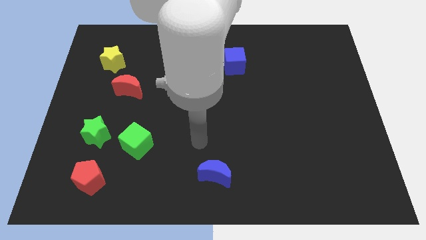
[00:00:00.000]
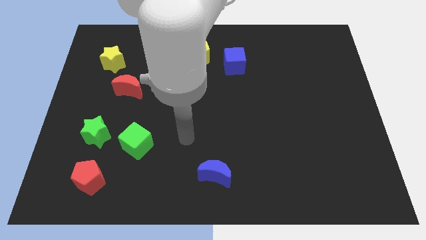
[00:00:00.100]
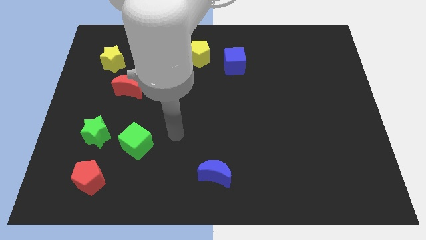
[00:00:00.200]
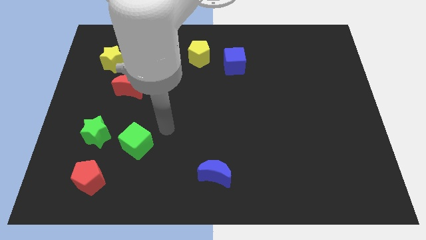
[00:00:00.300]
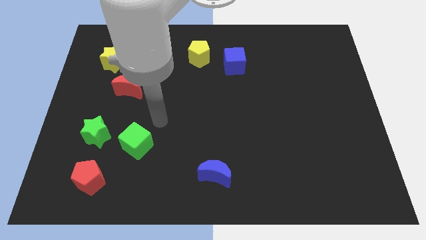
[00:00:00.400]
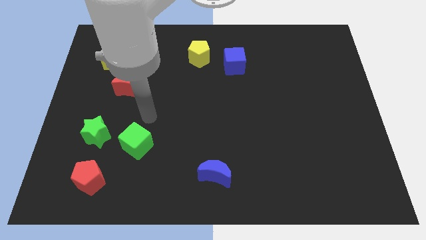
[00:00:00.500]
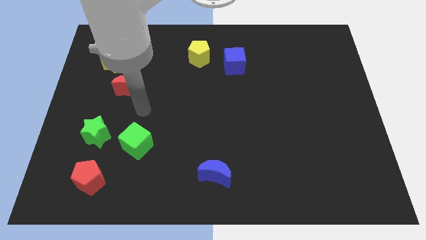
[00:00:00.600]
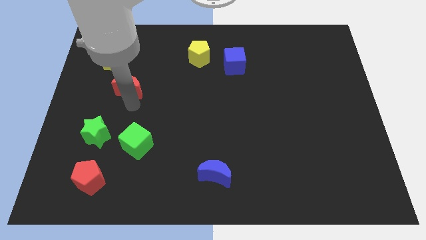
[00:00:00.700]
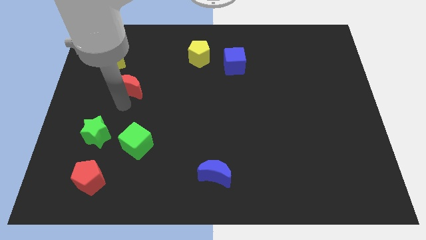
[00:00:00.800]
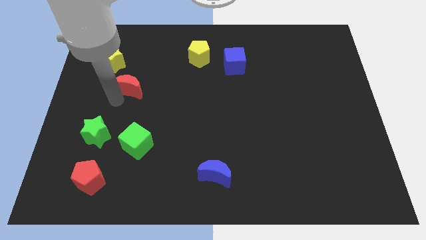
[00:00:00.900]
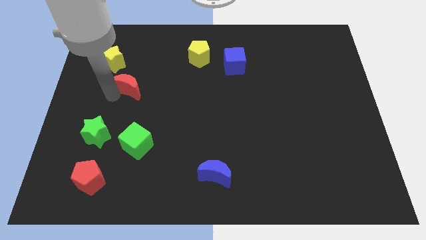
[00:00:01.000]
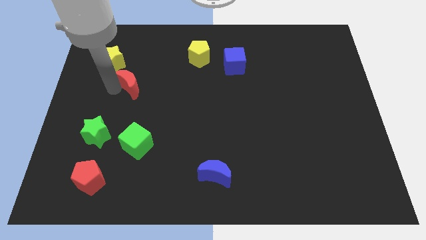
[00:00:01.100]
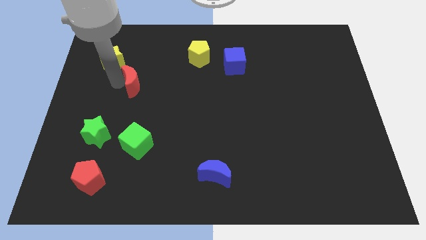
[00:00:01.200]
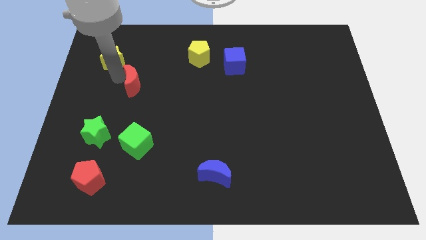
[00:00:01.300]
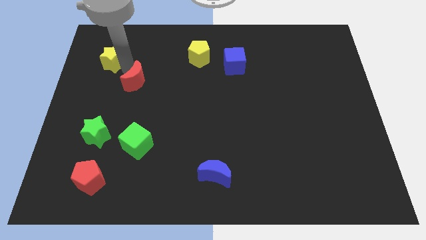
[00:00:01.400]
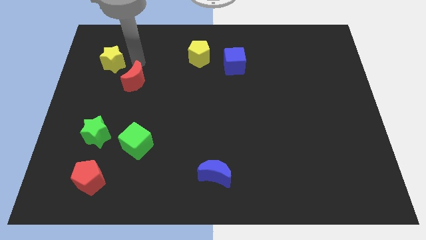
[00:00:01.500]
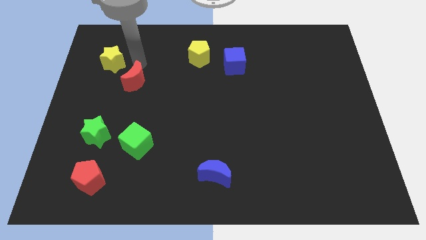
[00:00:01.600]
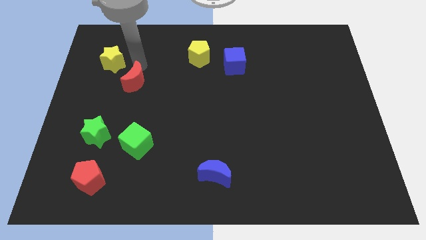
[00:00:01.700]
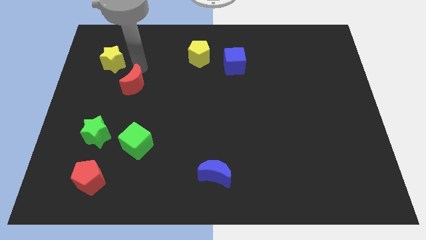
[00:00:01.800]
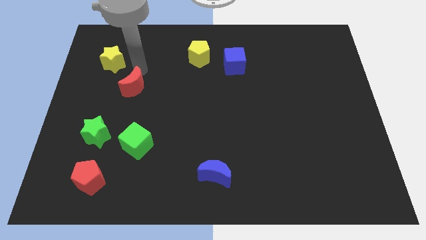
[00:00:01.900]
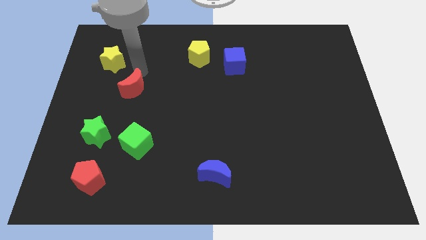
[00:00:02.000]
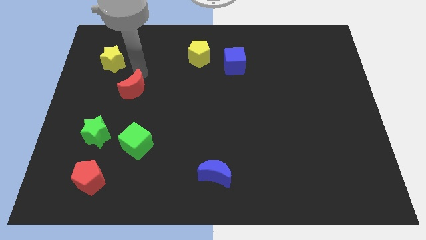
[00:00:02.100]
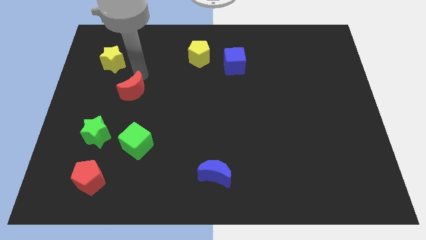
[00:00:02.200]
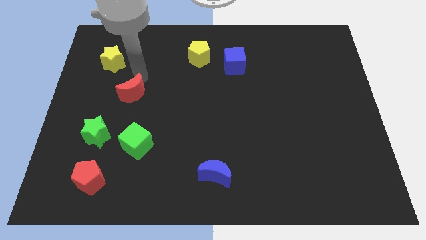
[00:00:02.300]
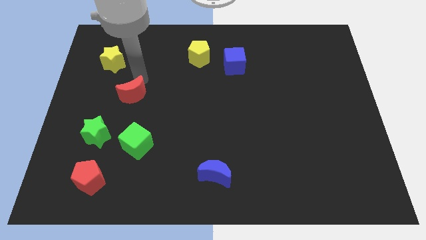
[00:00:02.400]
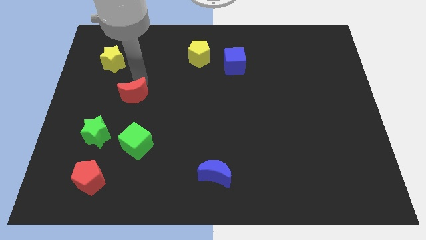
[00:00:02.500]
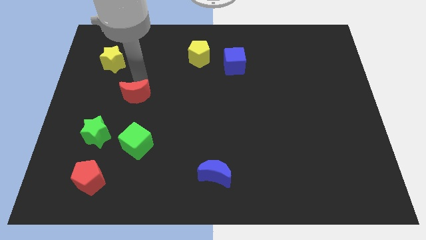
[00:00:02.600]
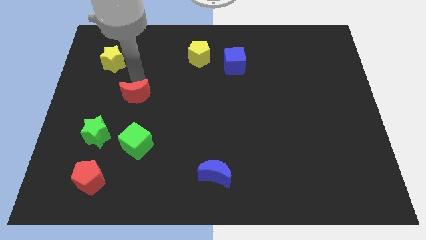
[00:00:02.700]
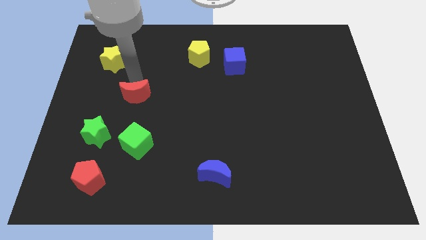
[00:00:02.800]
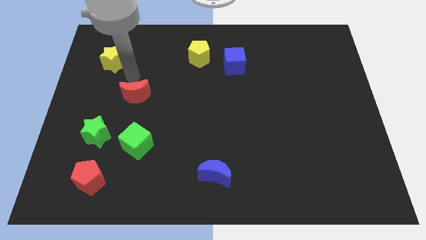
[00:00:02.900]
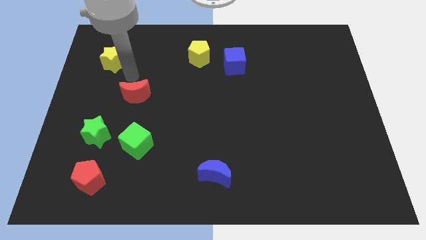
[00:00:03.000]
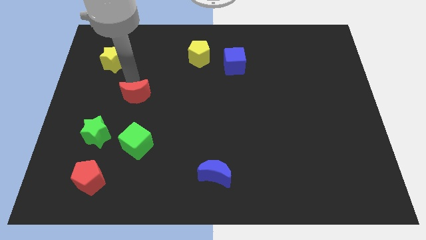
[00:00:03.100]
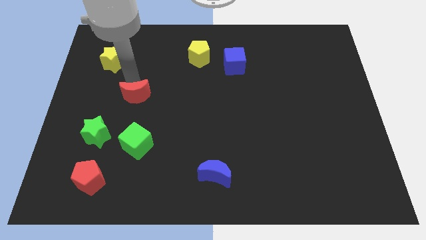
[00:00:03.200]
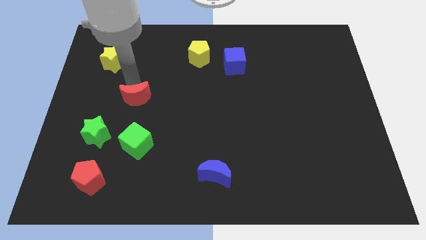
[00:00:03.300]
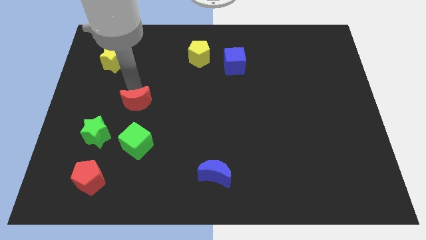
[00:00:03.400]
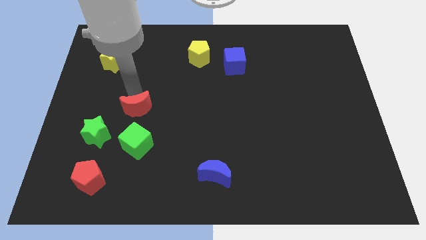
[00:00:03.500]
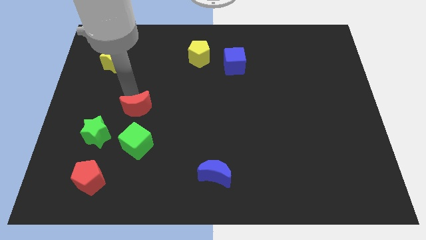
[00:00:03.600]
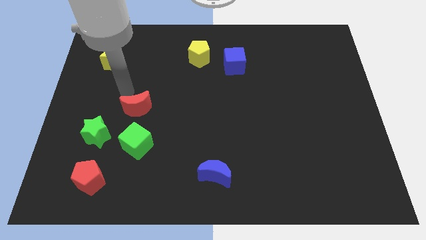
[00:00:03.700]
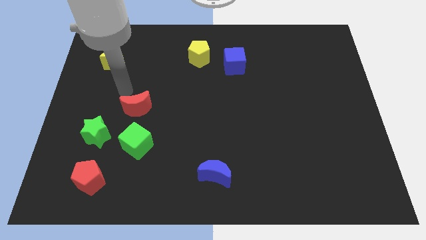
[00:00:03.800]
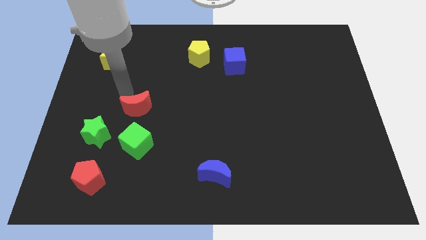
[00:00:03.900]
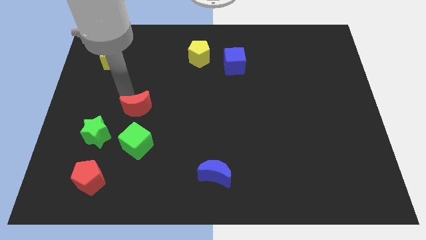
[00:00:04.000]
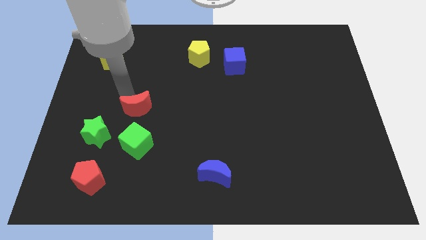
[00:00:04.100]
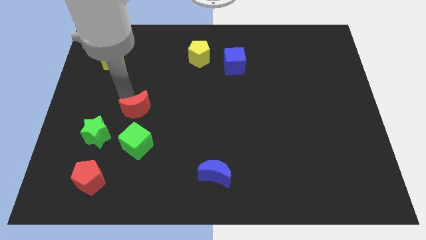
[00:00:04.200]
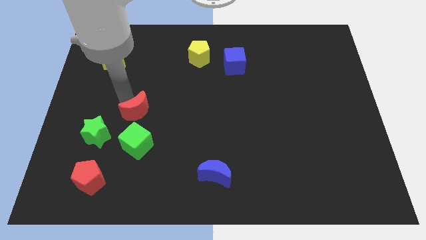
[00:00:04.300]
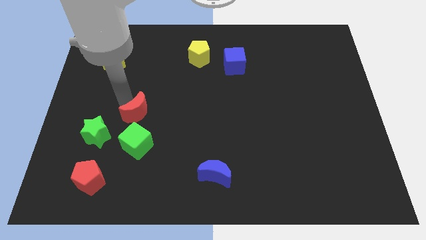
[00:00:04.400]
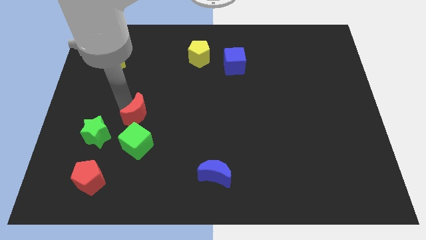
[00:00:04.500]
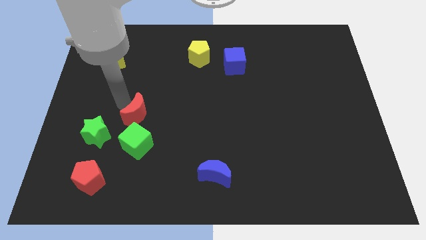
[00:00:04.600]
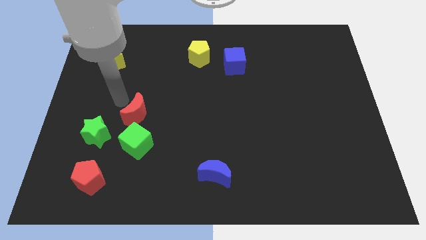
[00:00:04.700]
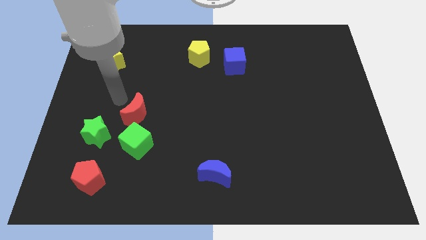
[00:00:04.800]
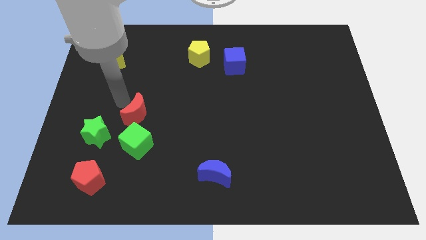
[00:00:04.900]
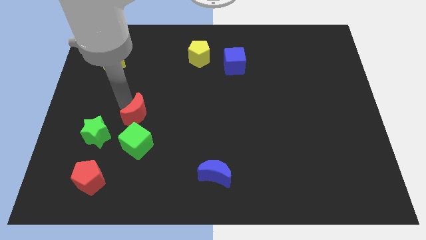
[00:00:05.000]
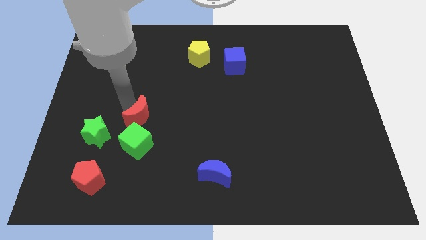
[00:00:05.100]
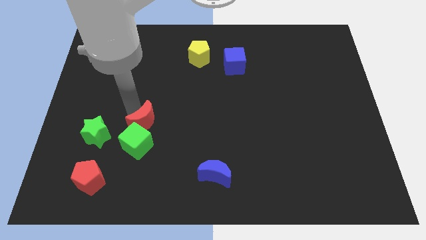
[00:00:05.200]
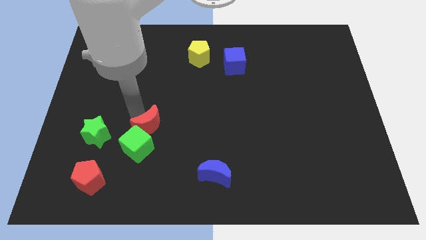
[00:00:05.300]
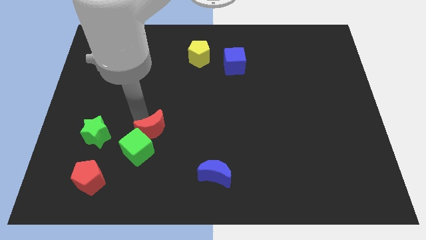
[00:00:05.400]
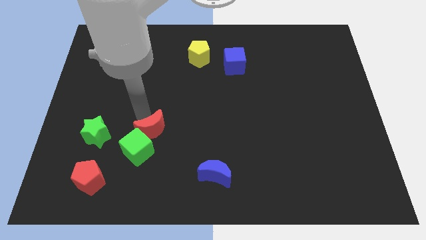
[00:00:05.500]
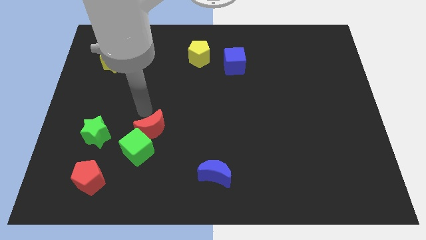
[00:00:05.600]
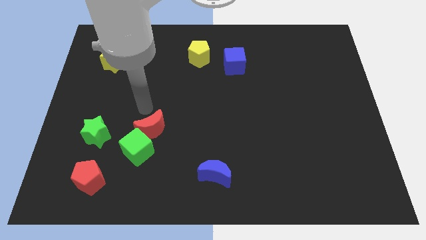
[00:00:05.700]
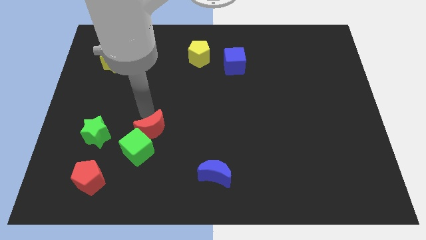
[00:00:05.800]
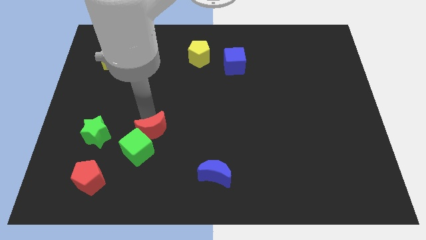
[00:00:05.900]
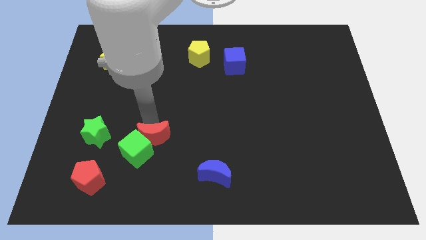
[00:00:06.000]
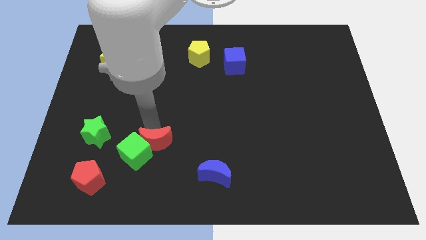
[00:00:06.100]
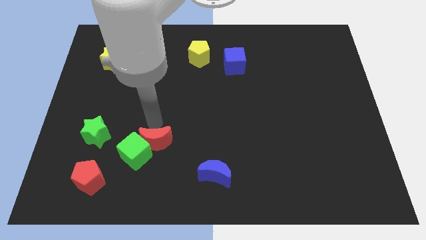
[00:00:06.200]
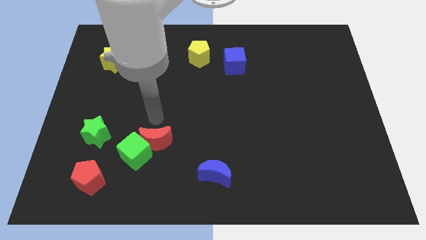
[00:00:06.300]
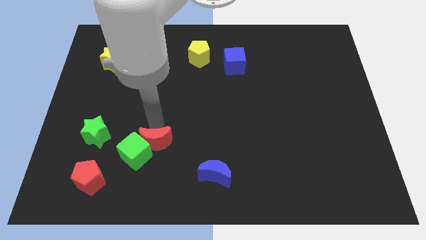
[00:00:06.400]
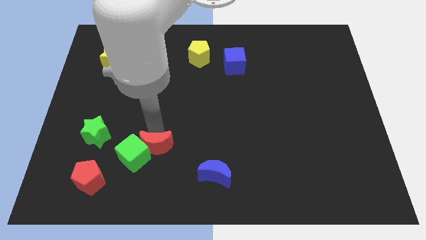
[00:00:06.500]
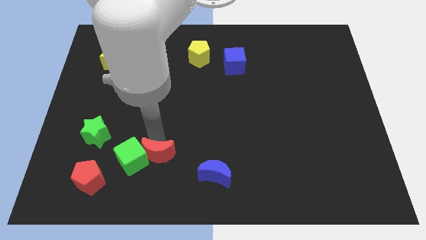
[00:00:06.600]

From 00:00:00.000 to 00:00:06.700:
slide the red moon to the bottom right side of the green cube
